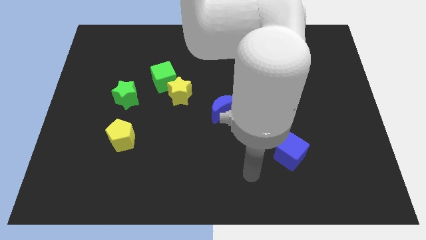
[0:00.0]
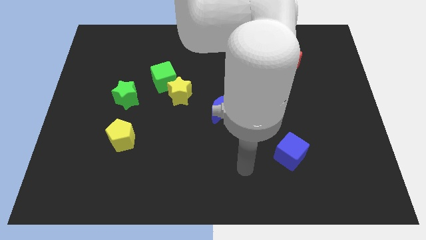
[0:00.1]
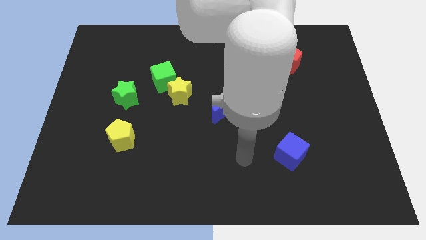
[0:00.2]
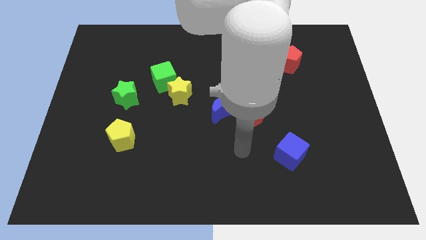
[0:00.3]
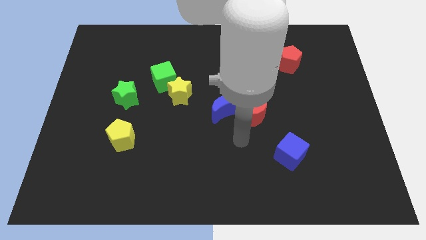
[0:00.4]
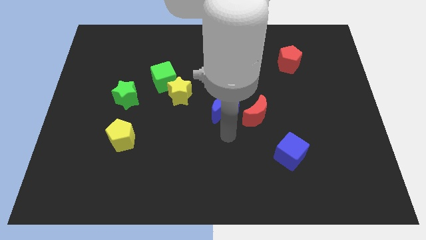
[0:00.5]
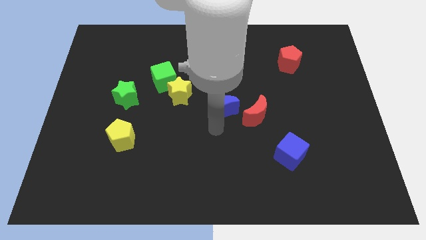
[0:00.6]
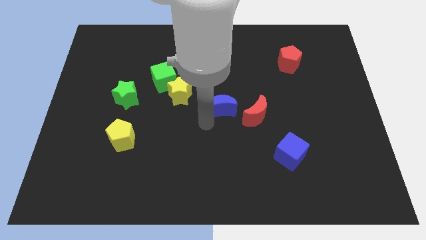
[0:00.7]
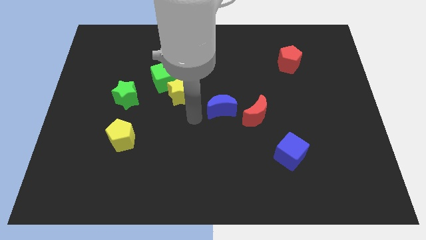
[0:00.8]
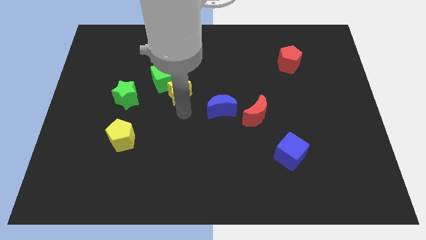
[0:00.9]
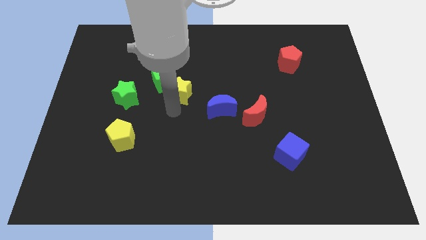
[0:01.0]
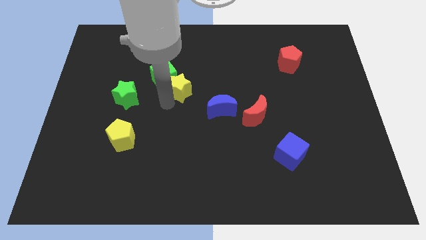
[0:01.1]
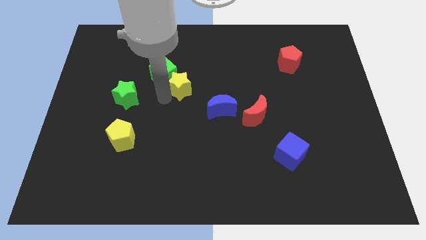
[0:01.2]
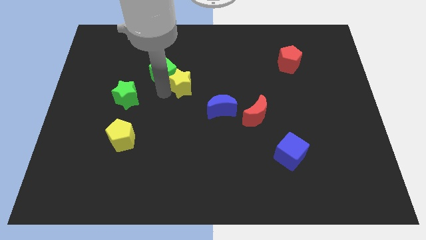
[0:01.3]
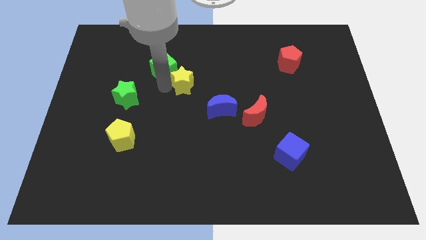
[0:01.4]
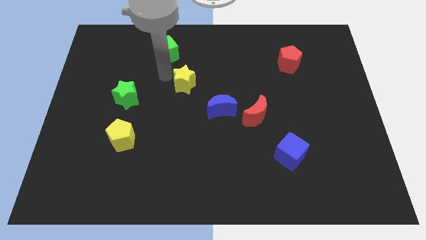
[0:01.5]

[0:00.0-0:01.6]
separate the yellow star from the green cube

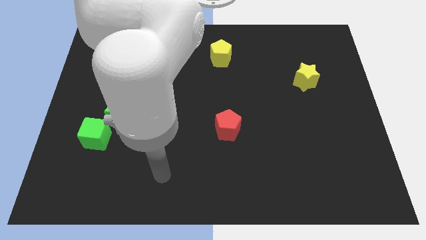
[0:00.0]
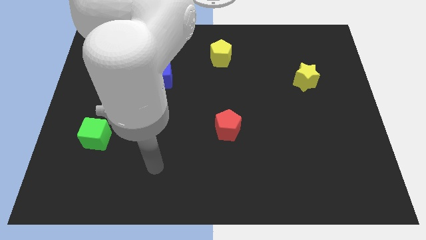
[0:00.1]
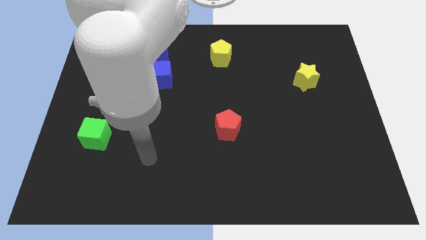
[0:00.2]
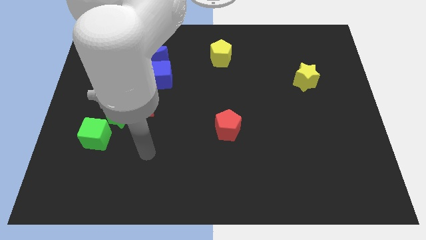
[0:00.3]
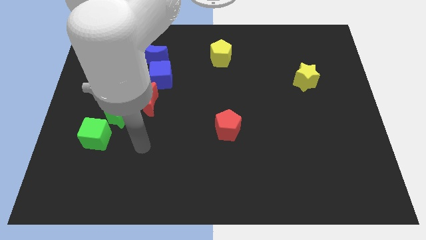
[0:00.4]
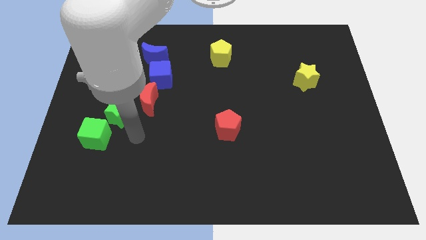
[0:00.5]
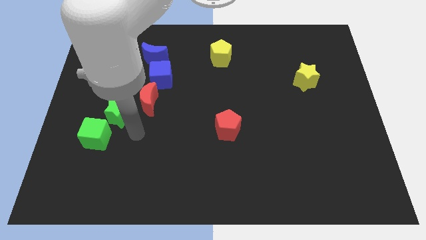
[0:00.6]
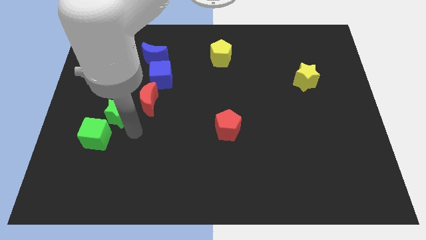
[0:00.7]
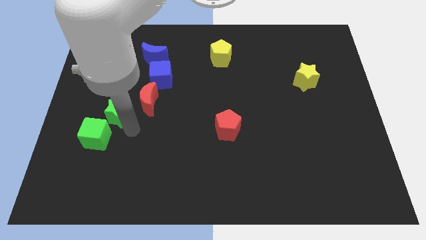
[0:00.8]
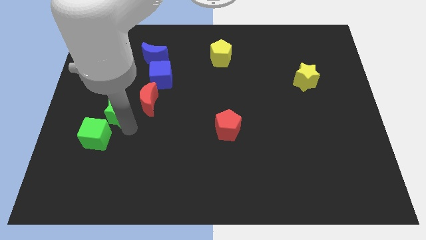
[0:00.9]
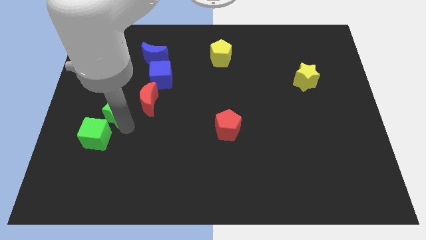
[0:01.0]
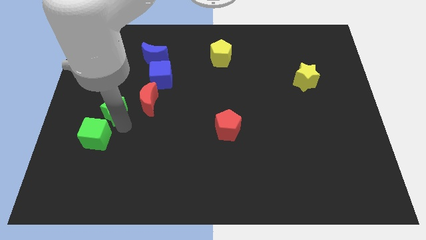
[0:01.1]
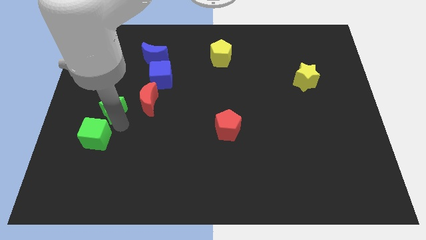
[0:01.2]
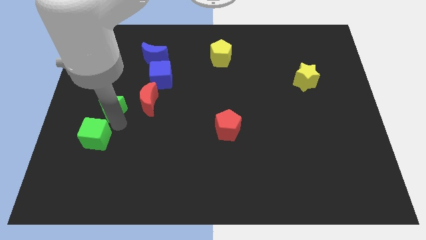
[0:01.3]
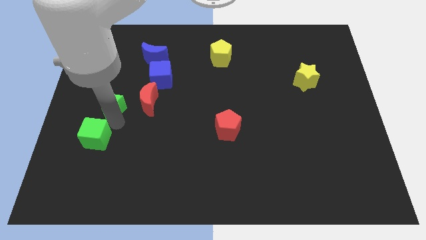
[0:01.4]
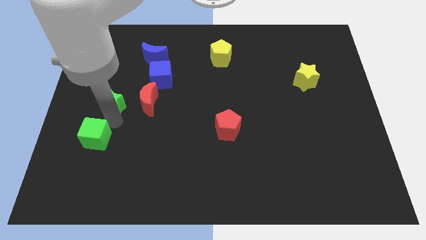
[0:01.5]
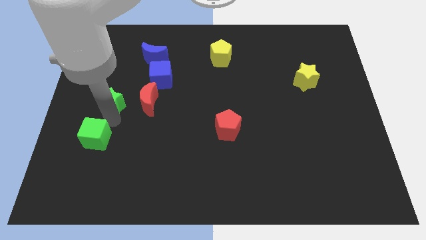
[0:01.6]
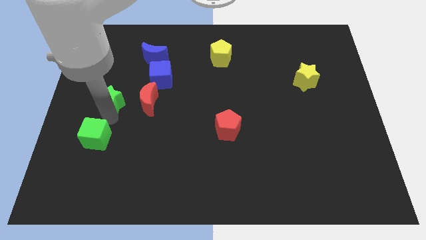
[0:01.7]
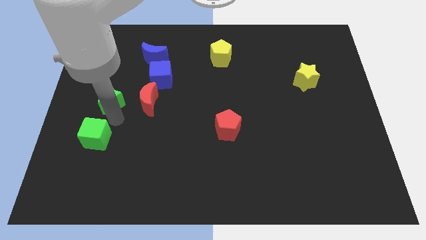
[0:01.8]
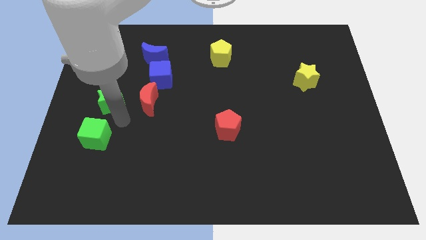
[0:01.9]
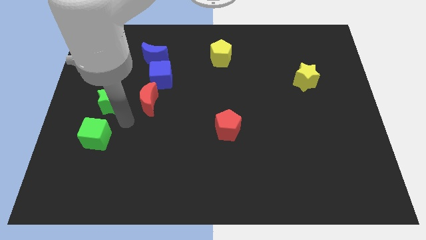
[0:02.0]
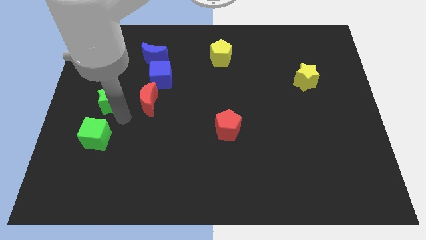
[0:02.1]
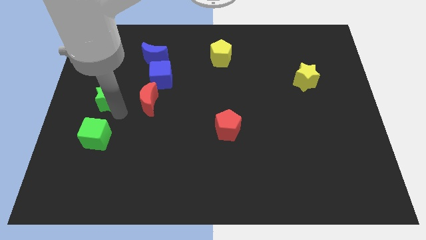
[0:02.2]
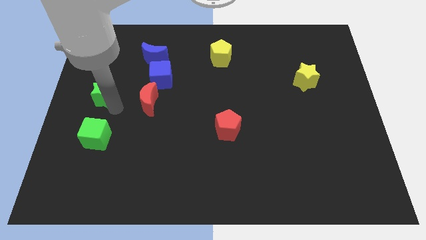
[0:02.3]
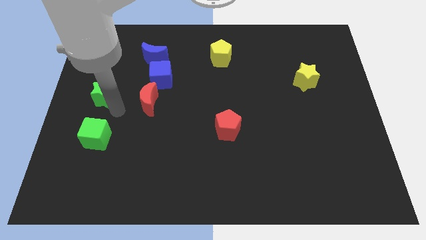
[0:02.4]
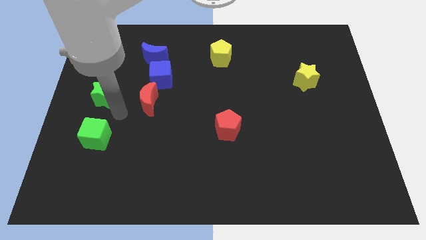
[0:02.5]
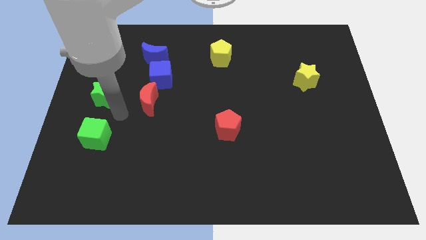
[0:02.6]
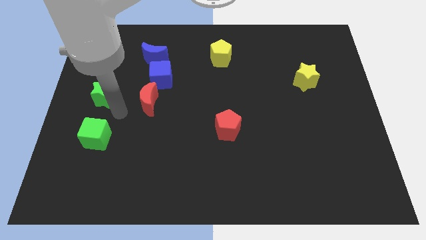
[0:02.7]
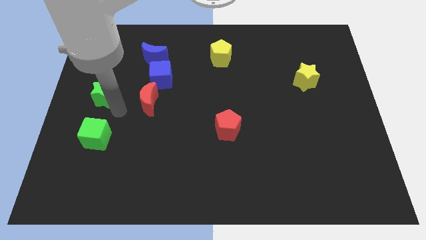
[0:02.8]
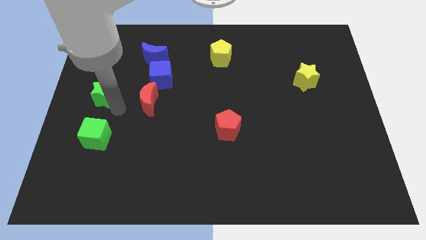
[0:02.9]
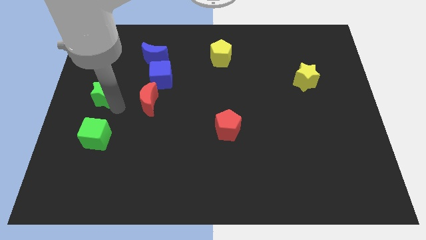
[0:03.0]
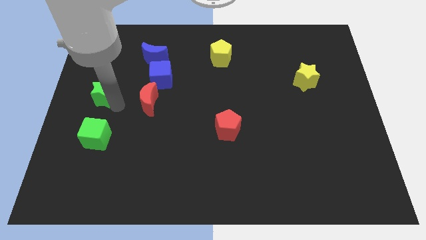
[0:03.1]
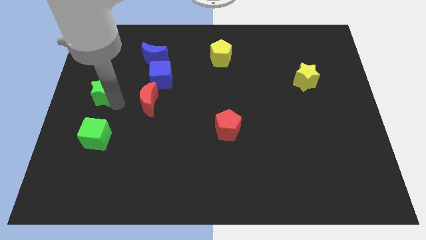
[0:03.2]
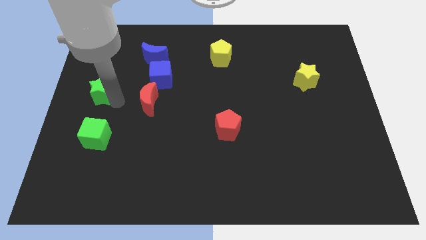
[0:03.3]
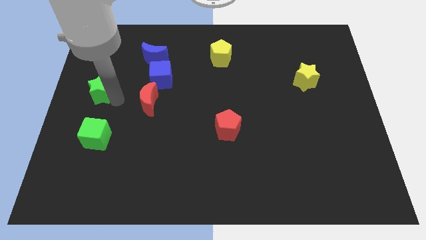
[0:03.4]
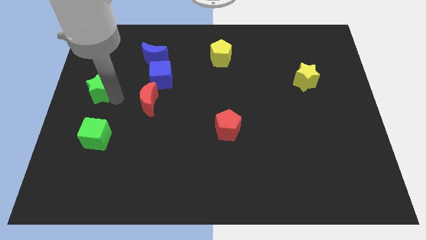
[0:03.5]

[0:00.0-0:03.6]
pull the green star apart from the red moon and green cube

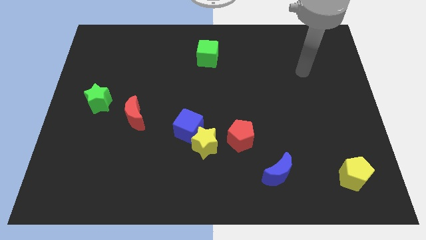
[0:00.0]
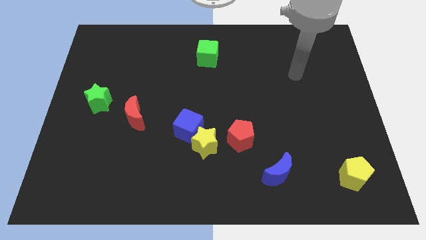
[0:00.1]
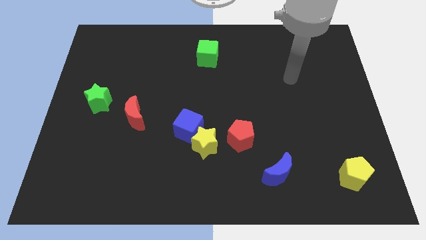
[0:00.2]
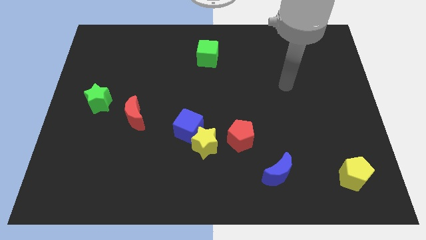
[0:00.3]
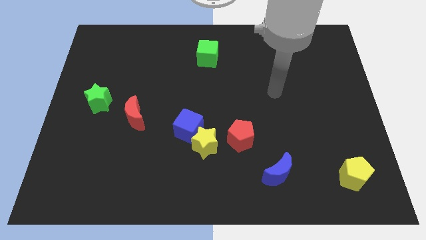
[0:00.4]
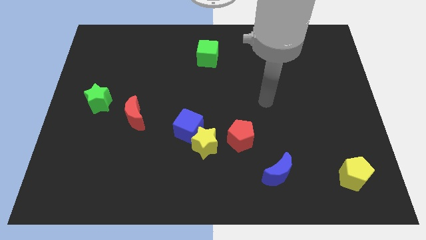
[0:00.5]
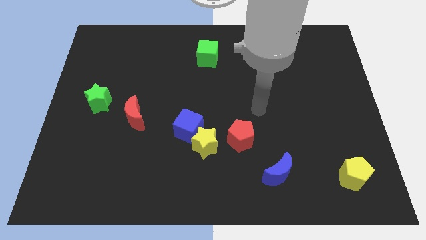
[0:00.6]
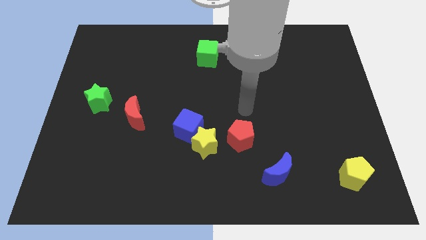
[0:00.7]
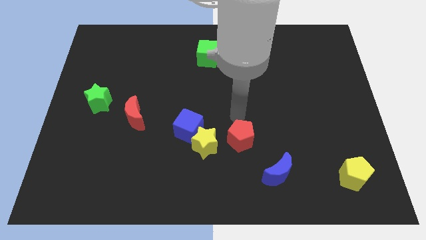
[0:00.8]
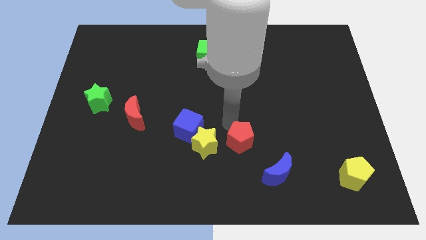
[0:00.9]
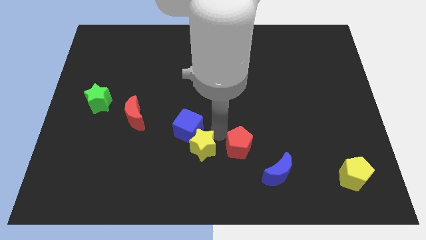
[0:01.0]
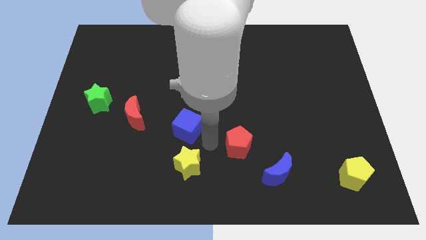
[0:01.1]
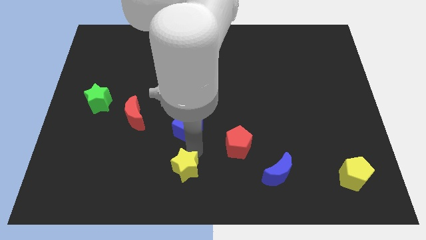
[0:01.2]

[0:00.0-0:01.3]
move the blue cube away from the yellow star

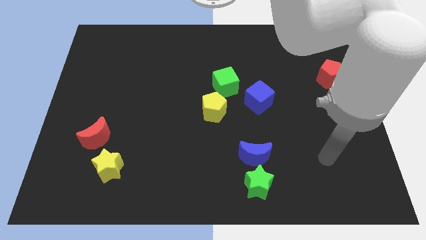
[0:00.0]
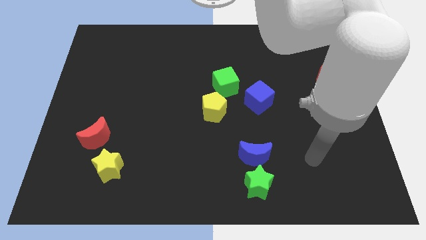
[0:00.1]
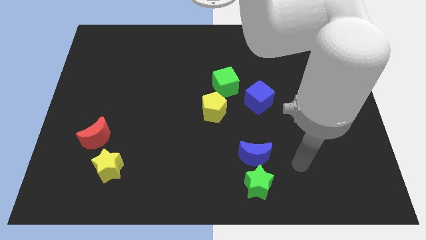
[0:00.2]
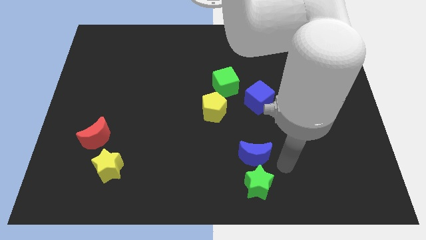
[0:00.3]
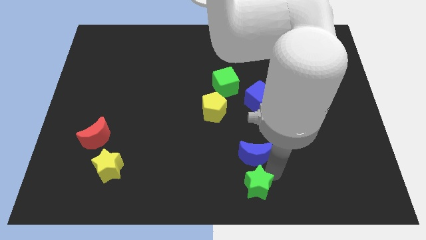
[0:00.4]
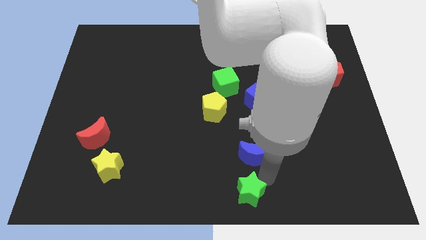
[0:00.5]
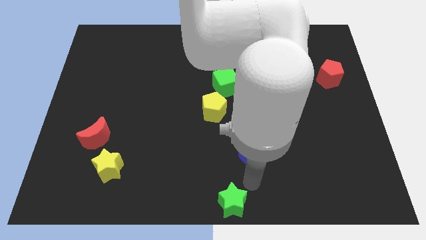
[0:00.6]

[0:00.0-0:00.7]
move the blue moon away from the green star

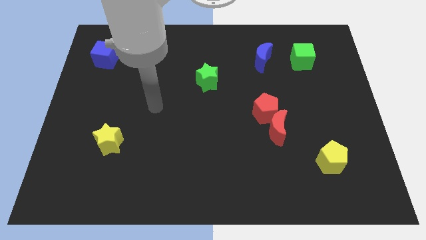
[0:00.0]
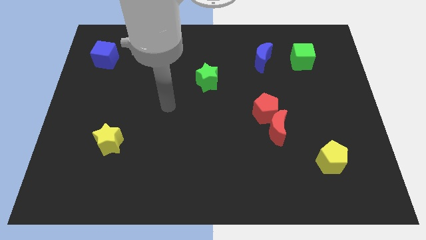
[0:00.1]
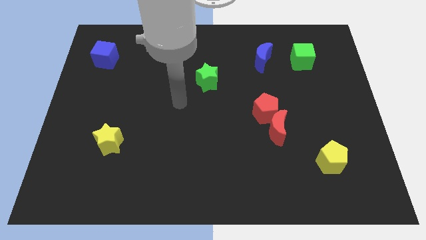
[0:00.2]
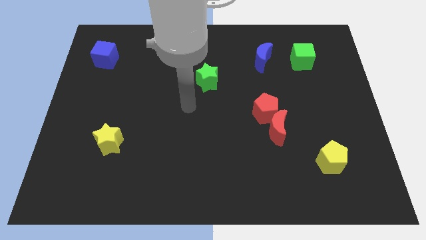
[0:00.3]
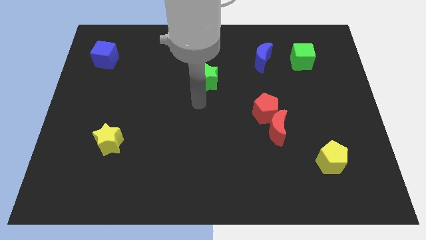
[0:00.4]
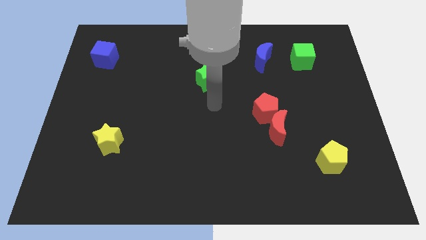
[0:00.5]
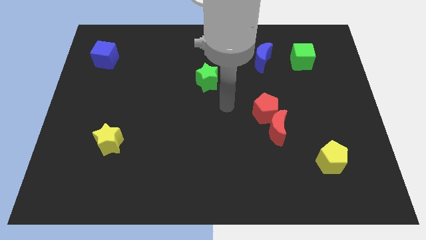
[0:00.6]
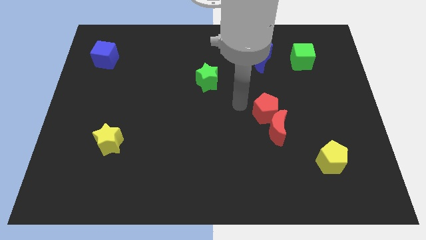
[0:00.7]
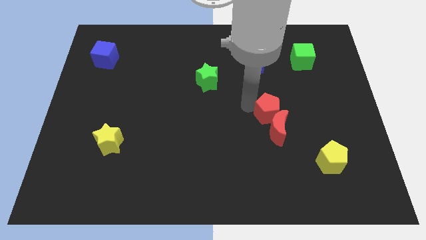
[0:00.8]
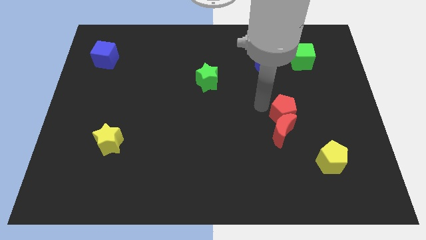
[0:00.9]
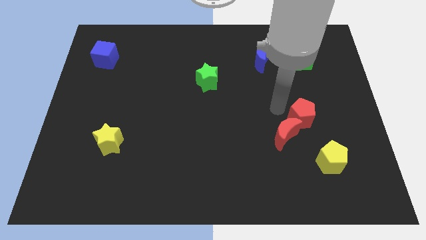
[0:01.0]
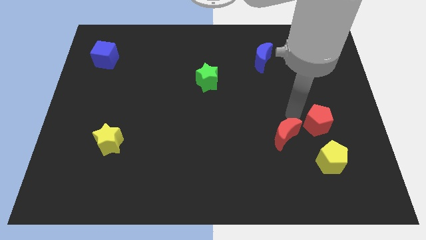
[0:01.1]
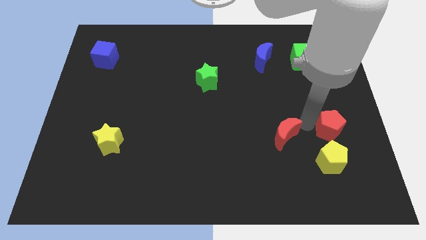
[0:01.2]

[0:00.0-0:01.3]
pull the red moon apart from the red pentagon

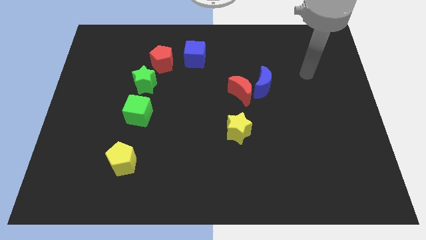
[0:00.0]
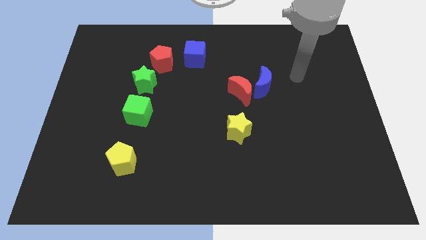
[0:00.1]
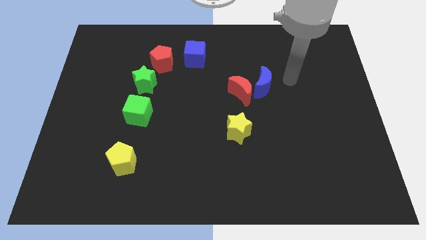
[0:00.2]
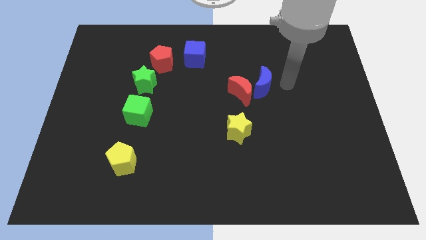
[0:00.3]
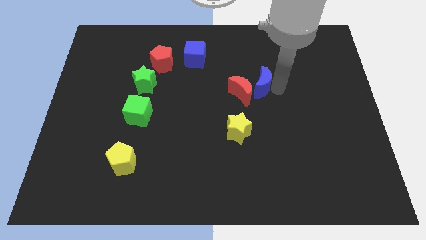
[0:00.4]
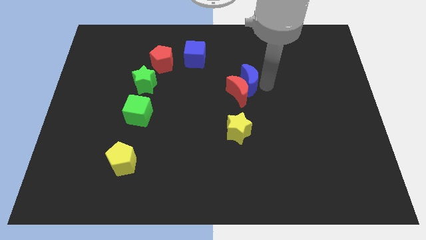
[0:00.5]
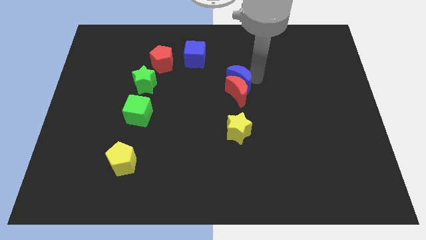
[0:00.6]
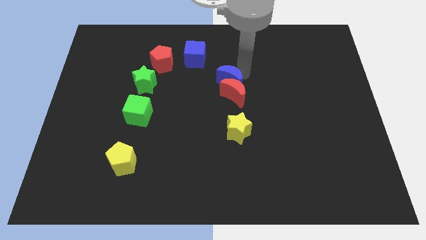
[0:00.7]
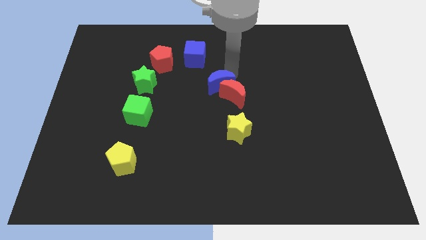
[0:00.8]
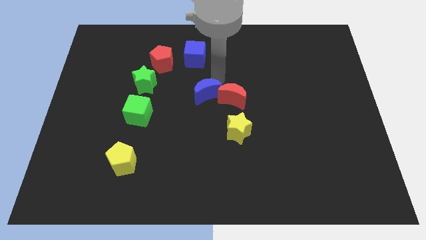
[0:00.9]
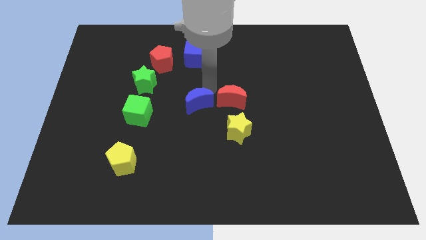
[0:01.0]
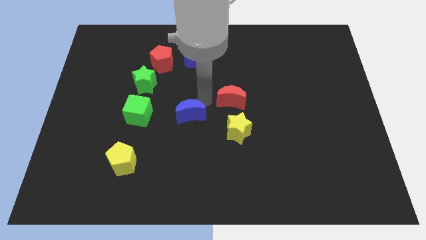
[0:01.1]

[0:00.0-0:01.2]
pull the red moon apart from the blue moon
